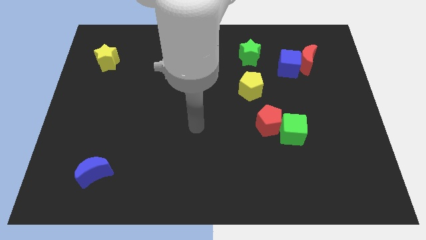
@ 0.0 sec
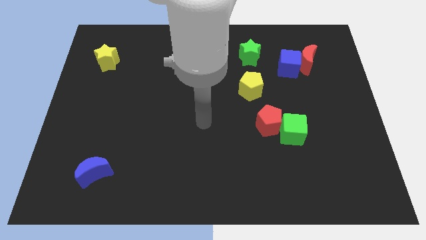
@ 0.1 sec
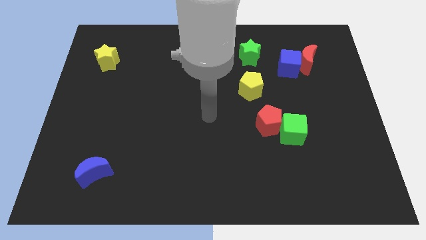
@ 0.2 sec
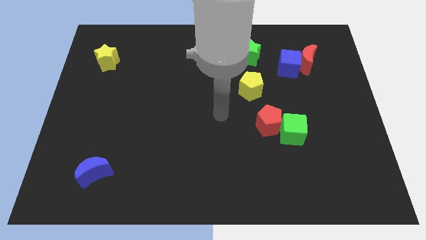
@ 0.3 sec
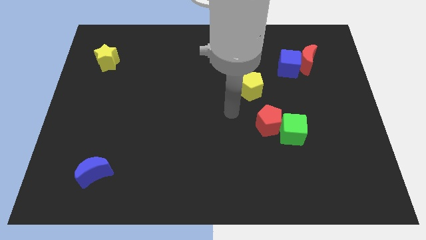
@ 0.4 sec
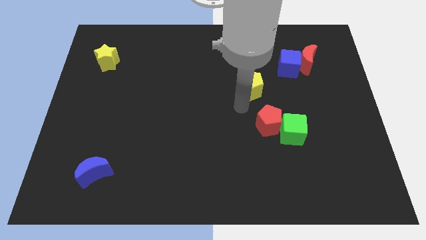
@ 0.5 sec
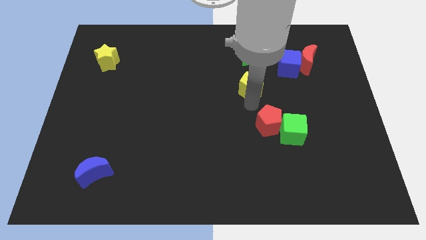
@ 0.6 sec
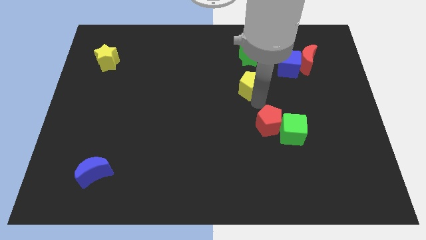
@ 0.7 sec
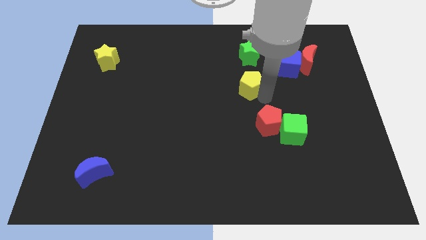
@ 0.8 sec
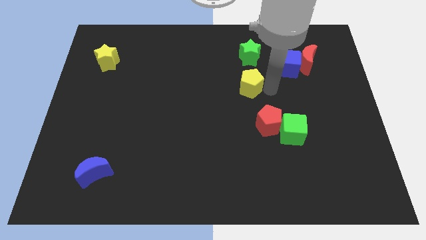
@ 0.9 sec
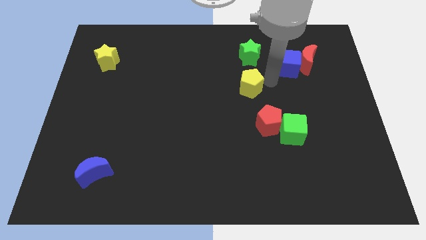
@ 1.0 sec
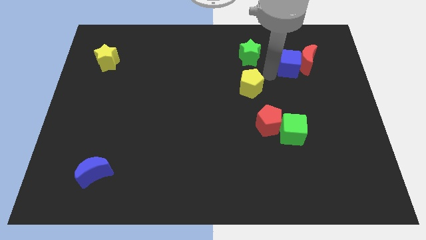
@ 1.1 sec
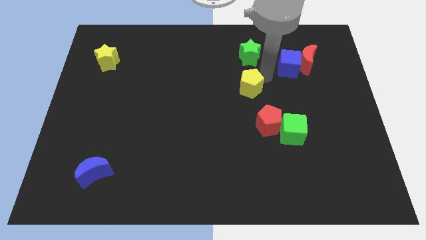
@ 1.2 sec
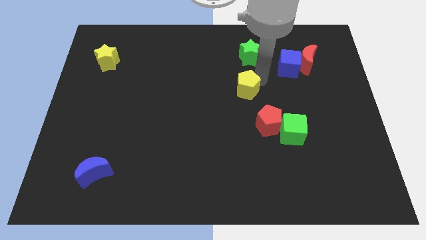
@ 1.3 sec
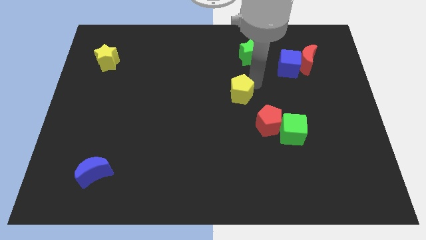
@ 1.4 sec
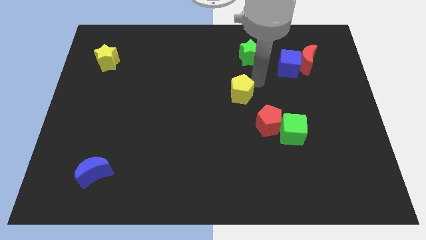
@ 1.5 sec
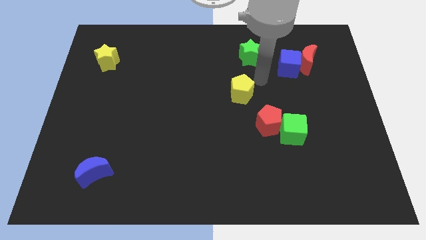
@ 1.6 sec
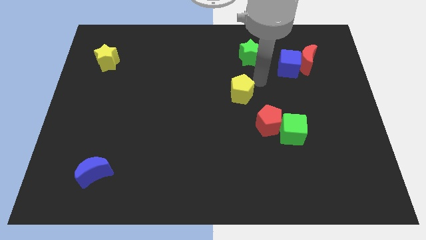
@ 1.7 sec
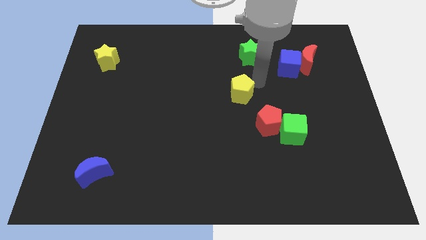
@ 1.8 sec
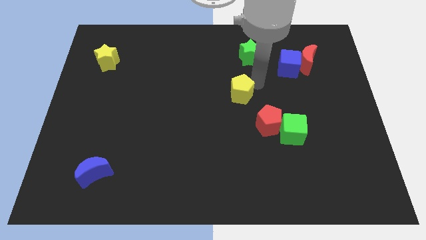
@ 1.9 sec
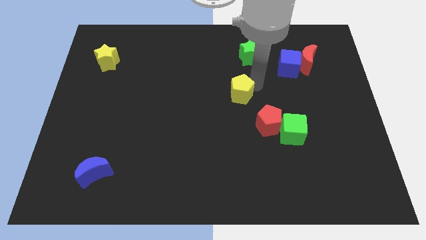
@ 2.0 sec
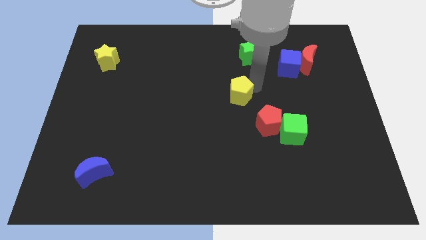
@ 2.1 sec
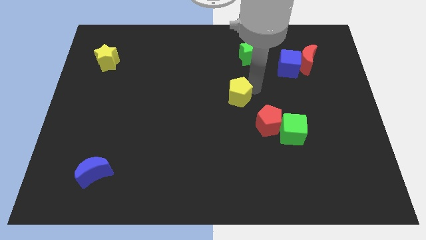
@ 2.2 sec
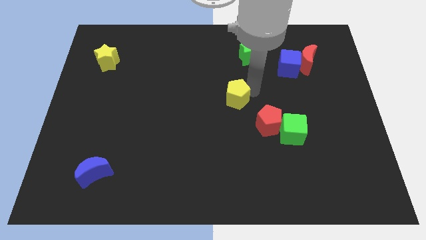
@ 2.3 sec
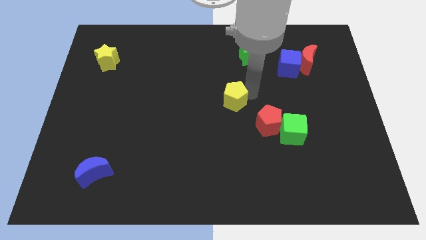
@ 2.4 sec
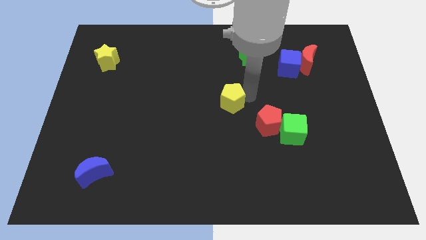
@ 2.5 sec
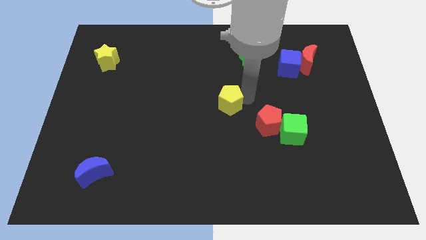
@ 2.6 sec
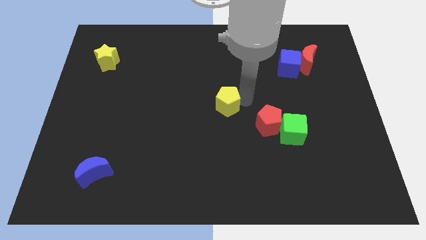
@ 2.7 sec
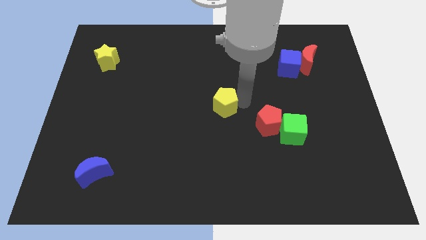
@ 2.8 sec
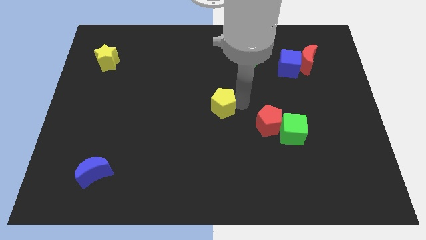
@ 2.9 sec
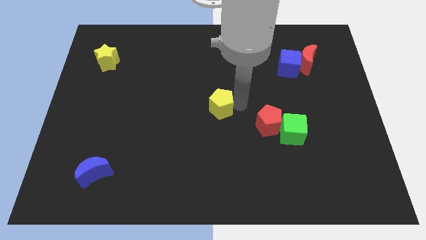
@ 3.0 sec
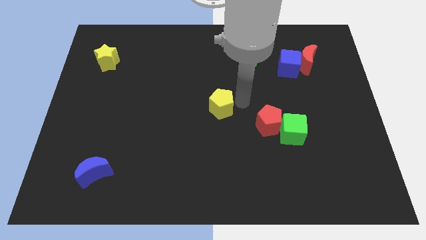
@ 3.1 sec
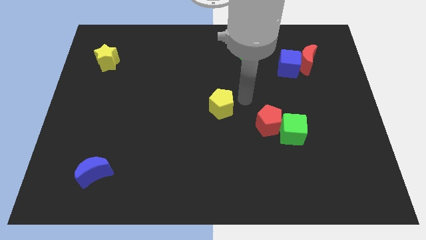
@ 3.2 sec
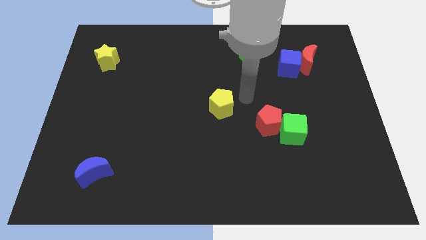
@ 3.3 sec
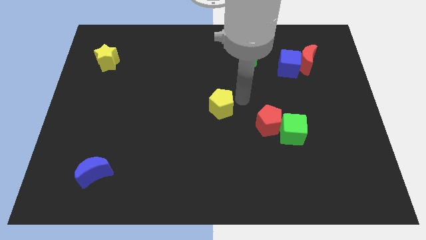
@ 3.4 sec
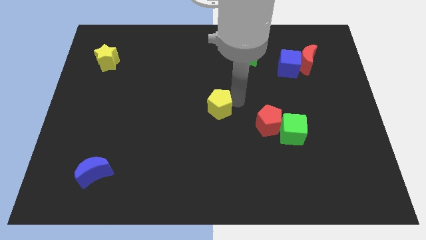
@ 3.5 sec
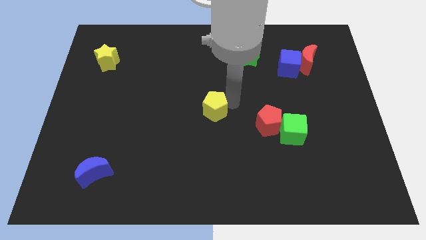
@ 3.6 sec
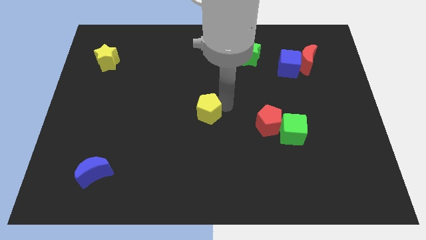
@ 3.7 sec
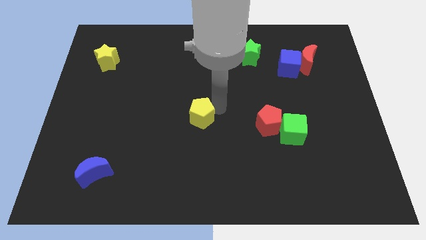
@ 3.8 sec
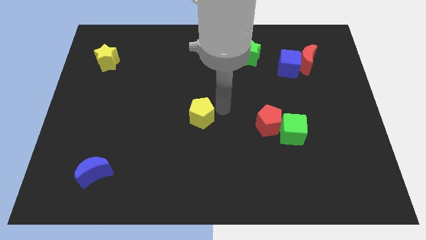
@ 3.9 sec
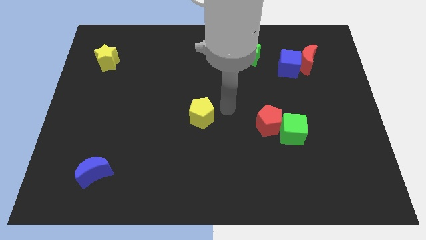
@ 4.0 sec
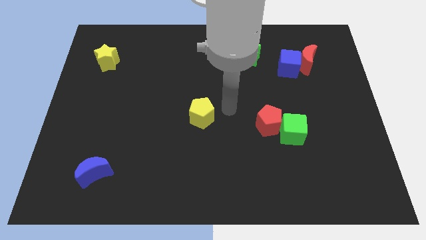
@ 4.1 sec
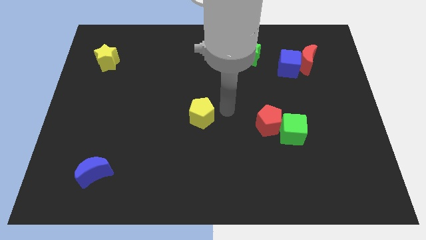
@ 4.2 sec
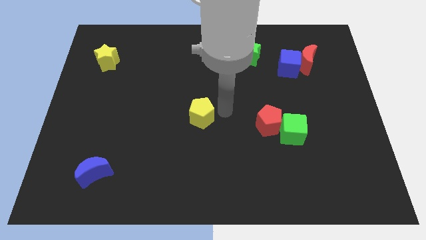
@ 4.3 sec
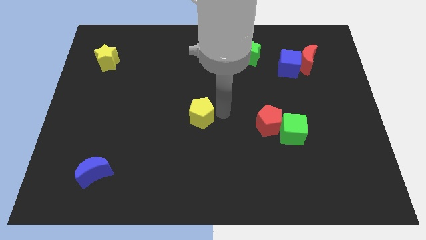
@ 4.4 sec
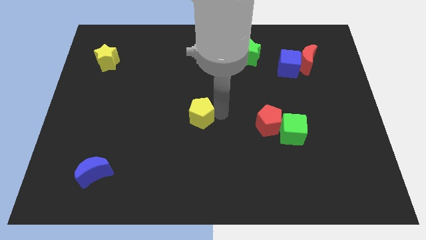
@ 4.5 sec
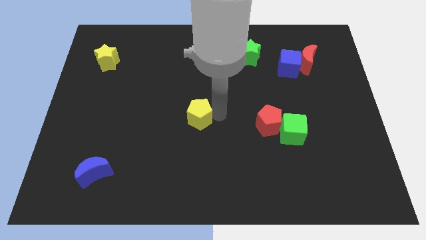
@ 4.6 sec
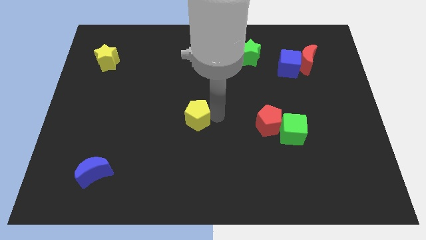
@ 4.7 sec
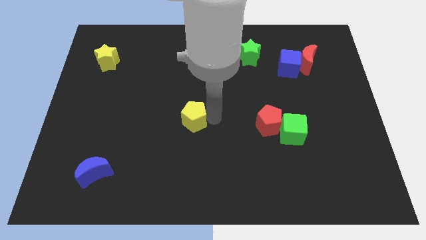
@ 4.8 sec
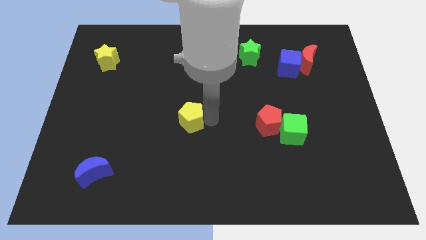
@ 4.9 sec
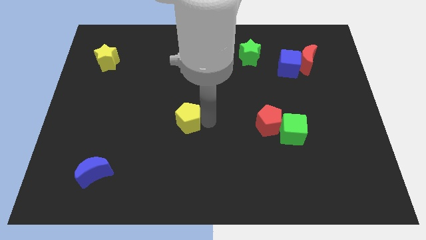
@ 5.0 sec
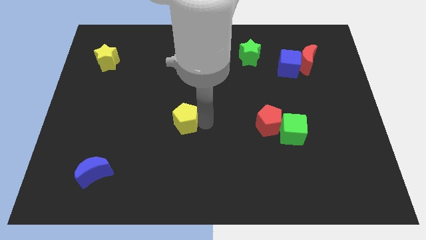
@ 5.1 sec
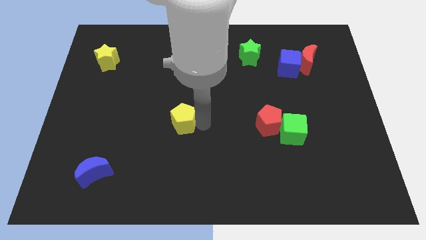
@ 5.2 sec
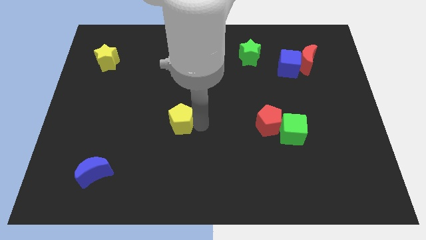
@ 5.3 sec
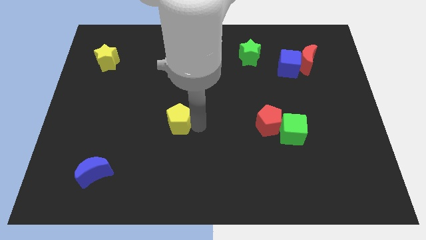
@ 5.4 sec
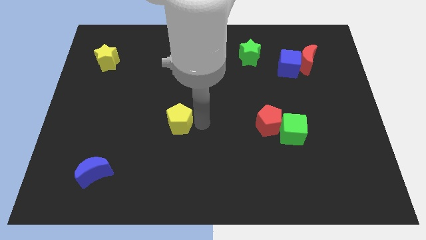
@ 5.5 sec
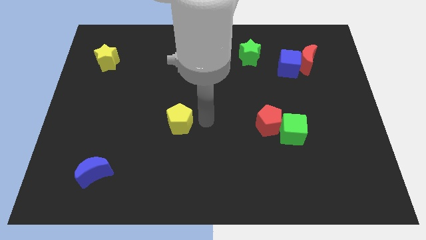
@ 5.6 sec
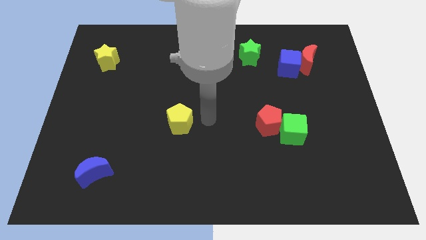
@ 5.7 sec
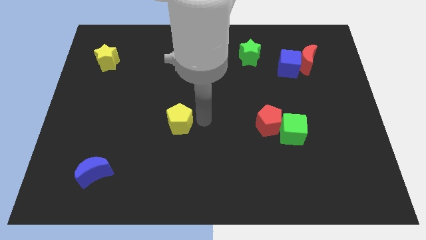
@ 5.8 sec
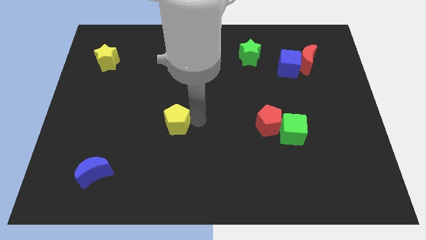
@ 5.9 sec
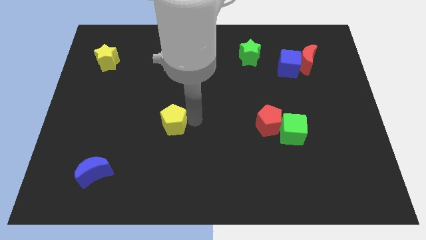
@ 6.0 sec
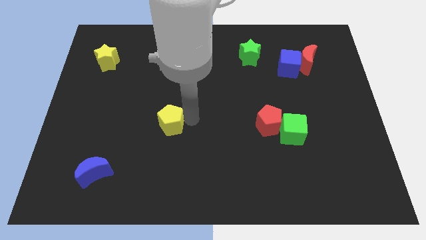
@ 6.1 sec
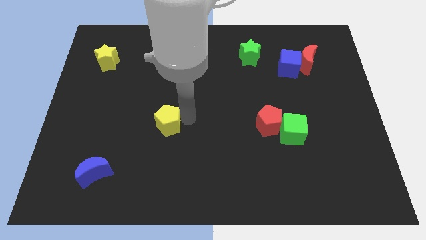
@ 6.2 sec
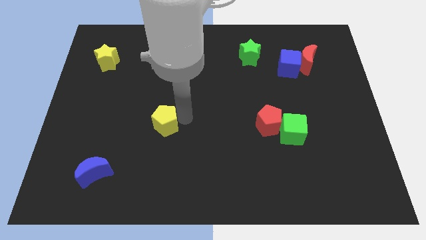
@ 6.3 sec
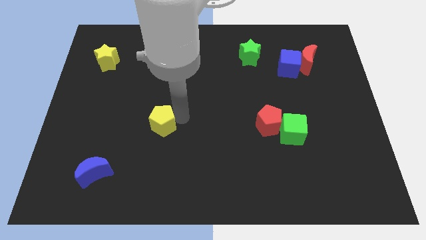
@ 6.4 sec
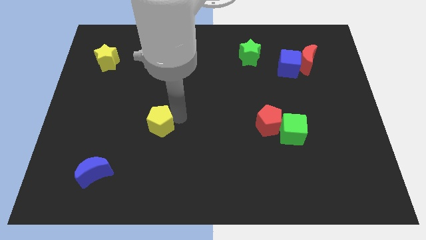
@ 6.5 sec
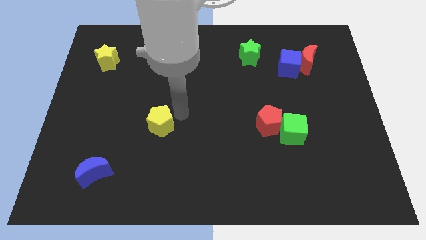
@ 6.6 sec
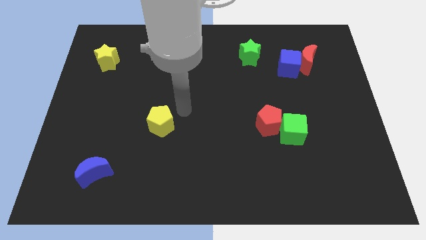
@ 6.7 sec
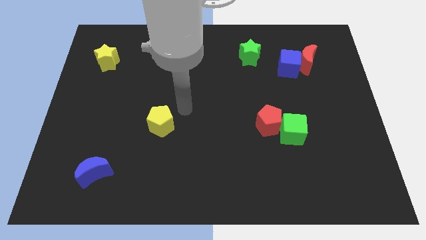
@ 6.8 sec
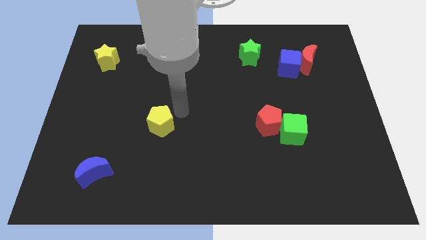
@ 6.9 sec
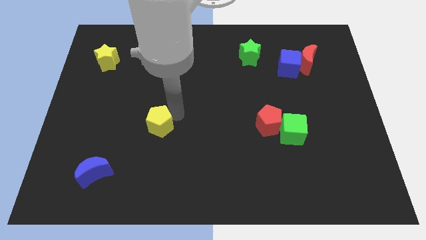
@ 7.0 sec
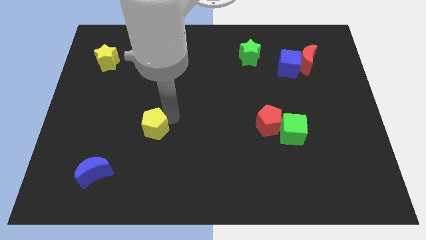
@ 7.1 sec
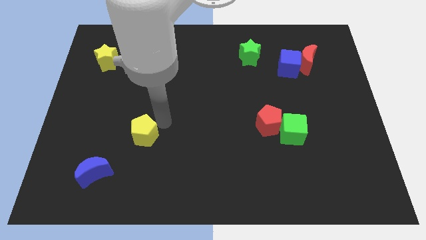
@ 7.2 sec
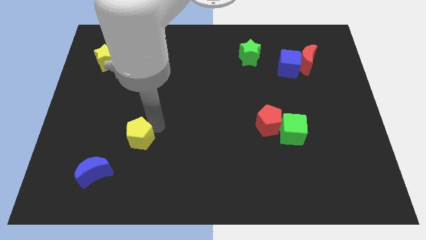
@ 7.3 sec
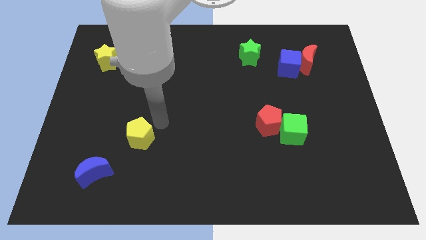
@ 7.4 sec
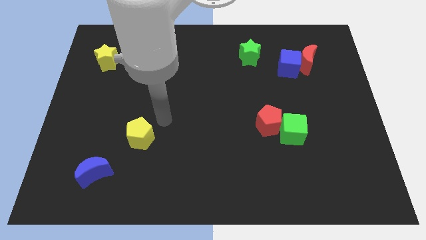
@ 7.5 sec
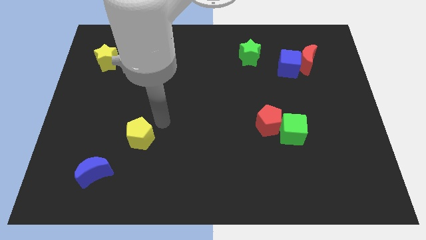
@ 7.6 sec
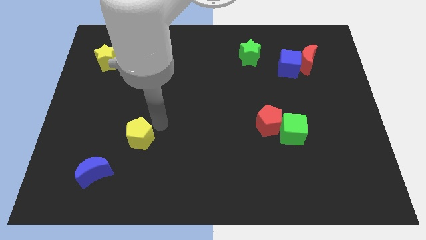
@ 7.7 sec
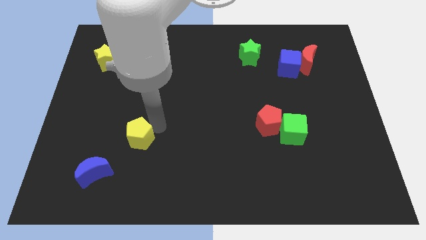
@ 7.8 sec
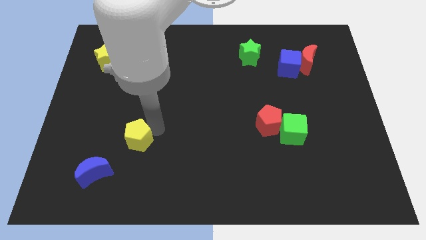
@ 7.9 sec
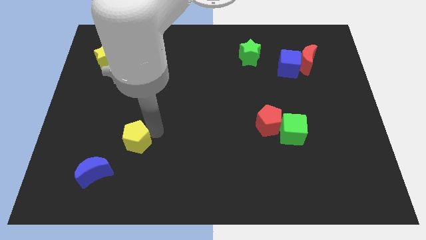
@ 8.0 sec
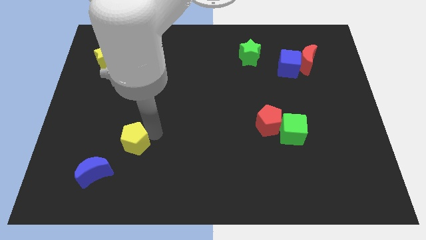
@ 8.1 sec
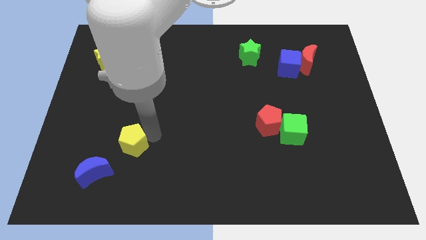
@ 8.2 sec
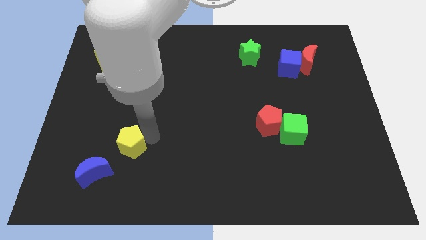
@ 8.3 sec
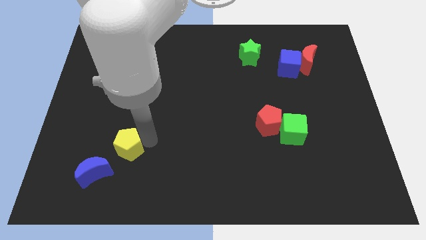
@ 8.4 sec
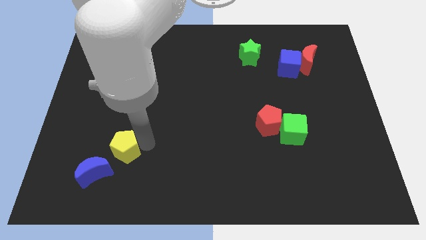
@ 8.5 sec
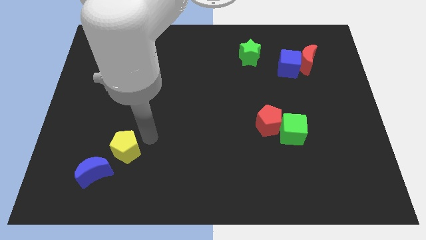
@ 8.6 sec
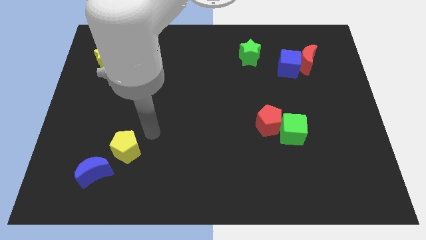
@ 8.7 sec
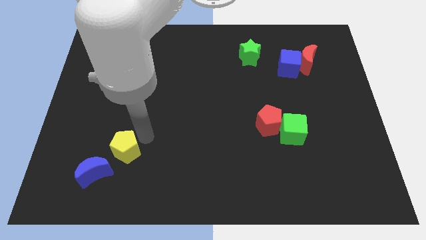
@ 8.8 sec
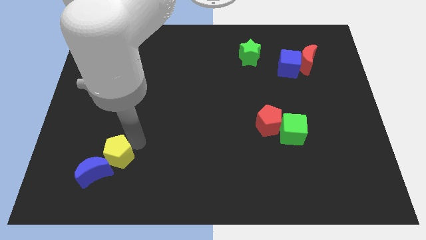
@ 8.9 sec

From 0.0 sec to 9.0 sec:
put the yellow pentagon next to the blue moon
